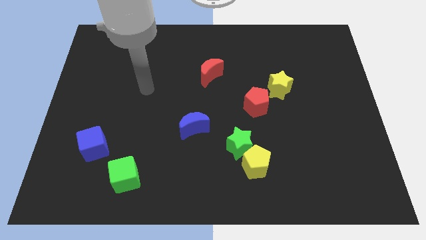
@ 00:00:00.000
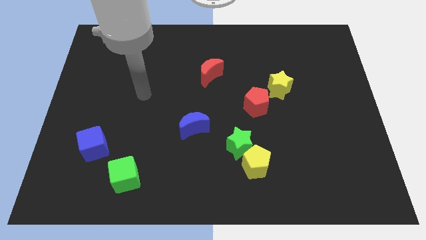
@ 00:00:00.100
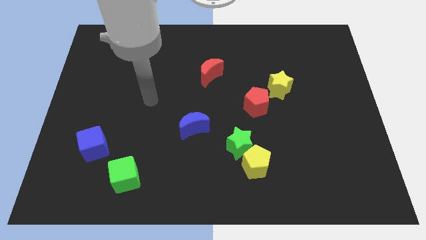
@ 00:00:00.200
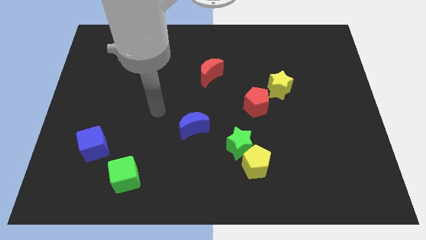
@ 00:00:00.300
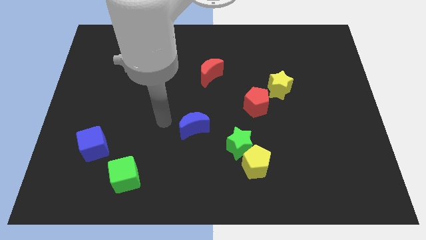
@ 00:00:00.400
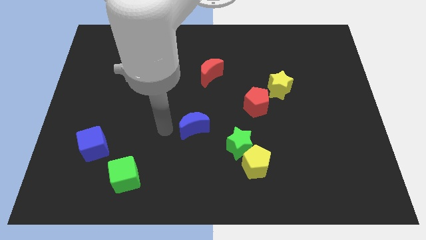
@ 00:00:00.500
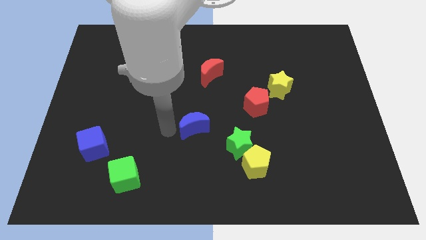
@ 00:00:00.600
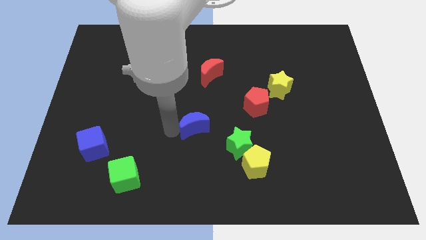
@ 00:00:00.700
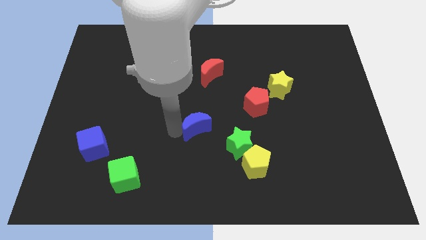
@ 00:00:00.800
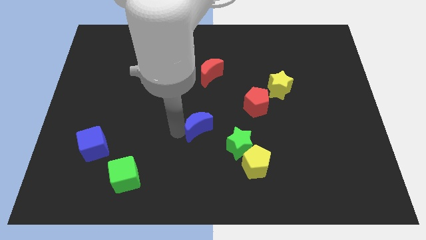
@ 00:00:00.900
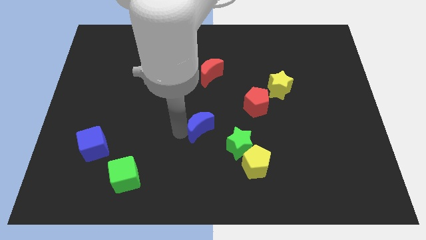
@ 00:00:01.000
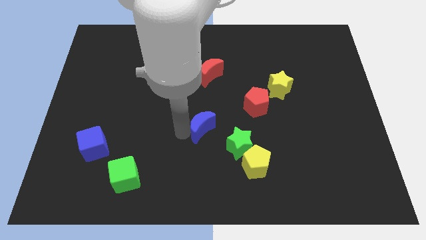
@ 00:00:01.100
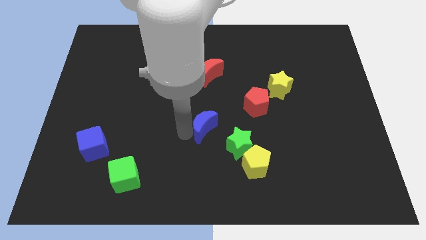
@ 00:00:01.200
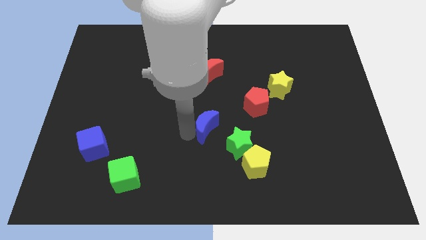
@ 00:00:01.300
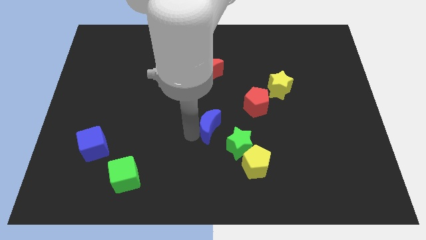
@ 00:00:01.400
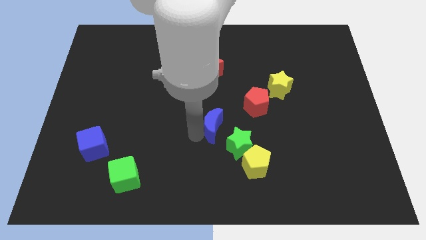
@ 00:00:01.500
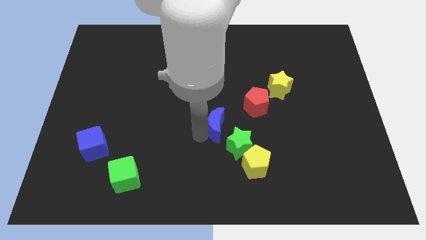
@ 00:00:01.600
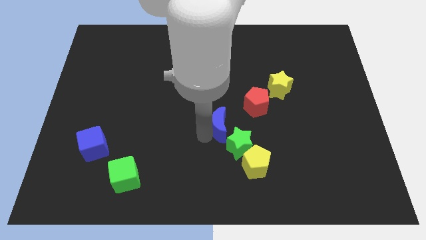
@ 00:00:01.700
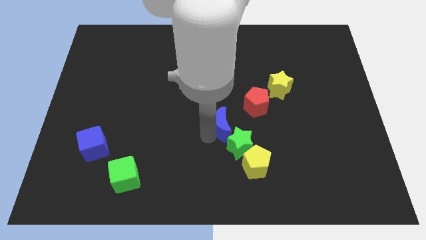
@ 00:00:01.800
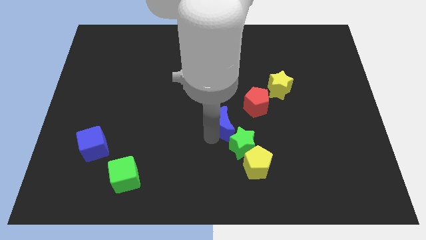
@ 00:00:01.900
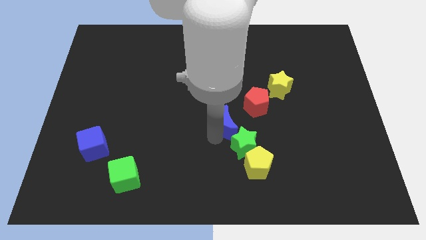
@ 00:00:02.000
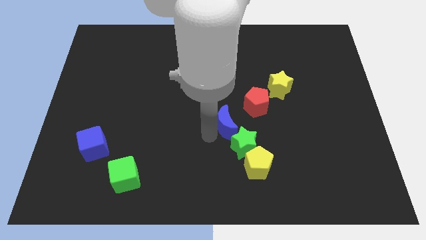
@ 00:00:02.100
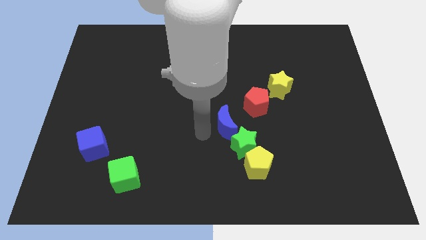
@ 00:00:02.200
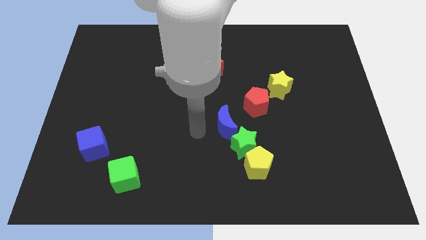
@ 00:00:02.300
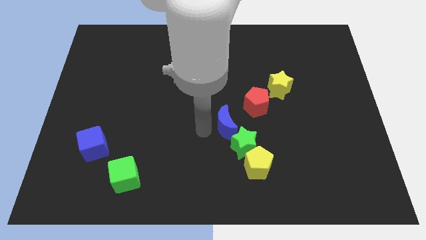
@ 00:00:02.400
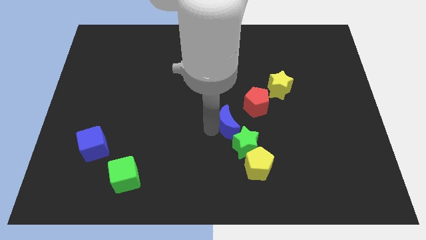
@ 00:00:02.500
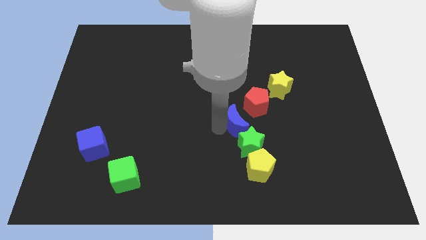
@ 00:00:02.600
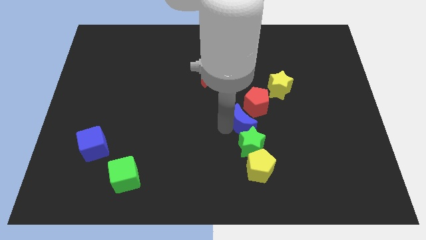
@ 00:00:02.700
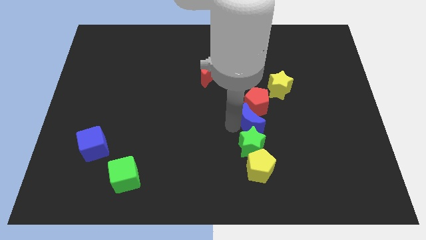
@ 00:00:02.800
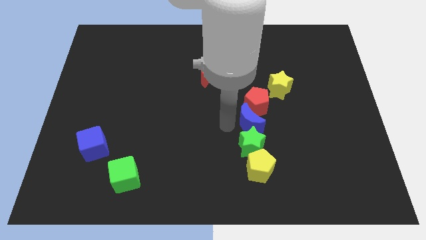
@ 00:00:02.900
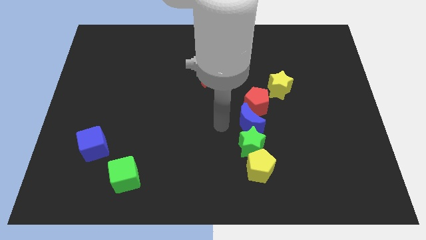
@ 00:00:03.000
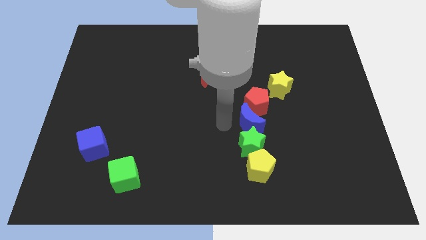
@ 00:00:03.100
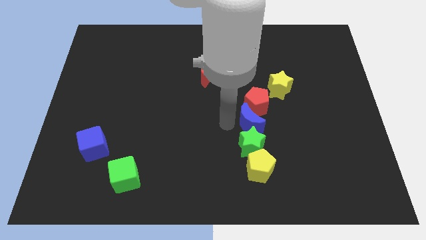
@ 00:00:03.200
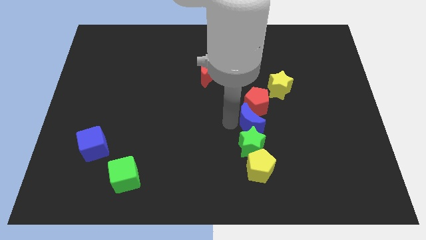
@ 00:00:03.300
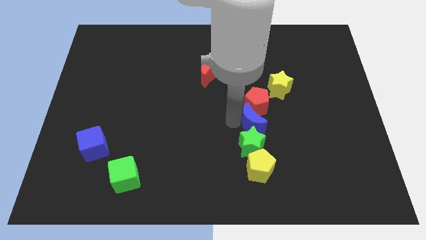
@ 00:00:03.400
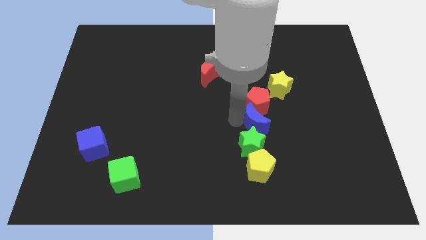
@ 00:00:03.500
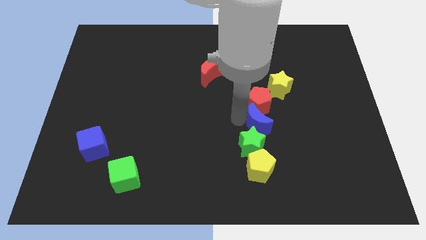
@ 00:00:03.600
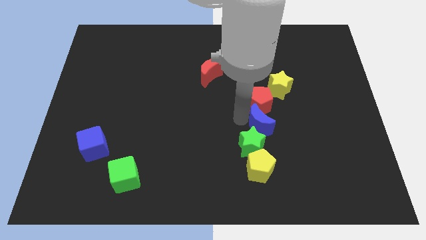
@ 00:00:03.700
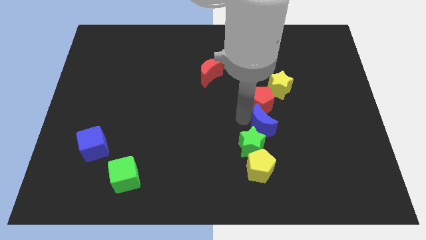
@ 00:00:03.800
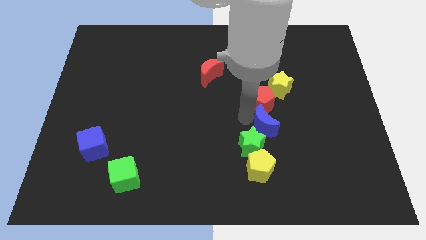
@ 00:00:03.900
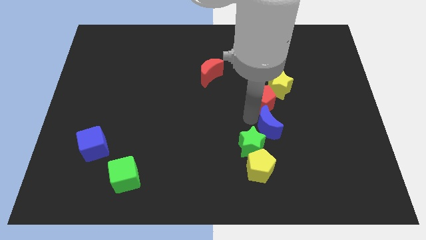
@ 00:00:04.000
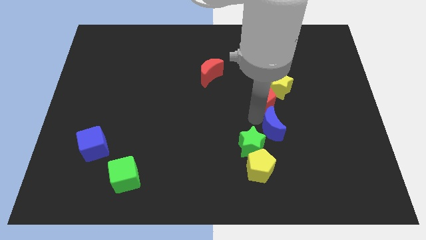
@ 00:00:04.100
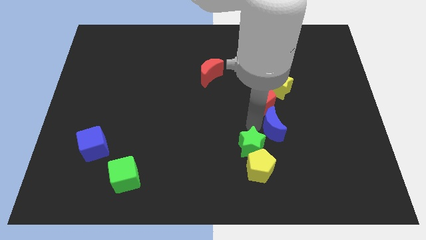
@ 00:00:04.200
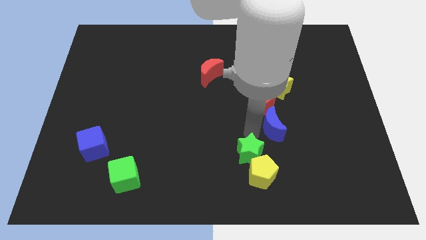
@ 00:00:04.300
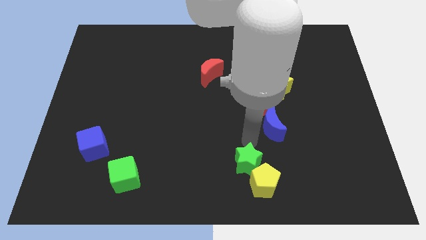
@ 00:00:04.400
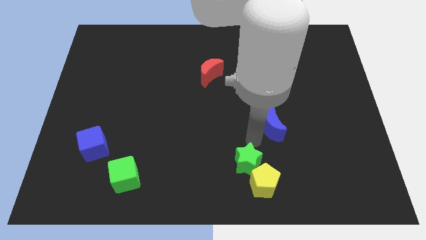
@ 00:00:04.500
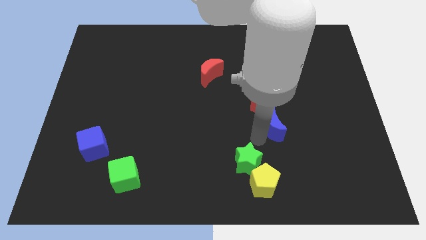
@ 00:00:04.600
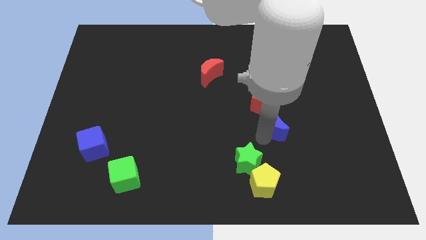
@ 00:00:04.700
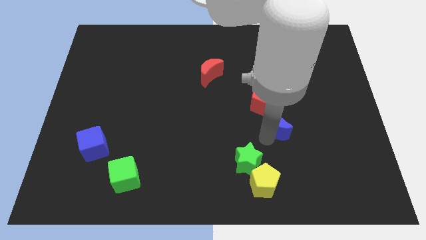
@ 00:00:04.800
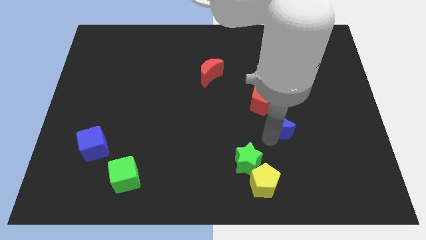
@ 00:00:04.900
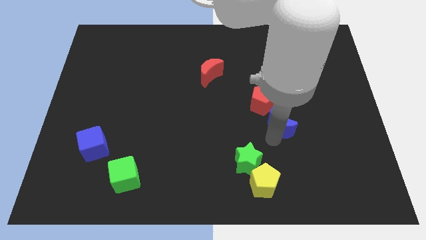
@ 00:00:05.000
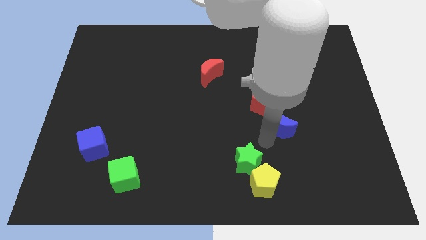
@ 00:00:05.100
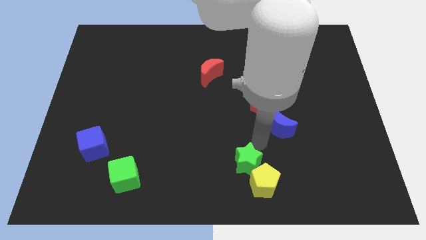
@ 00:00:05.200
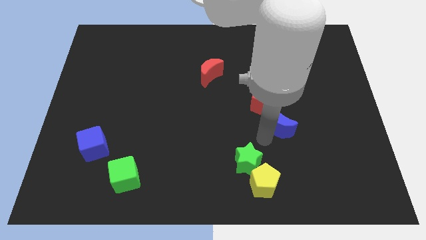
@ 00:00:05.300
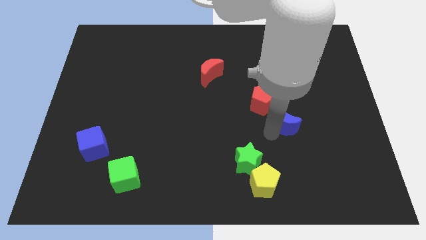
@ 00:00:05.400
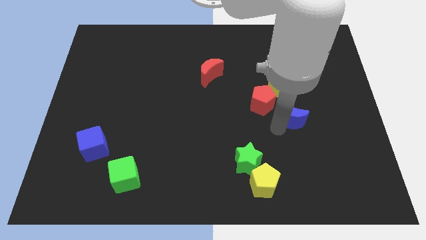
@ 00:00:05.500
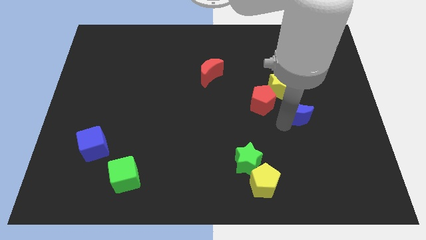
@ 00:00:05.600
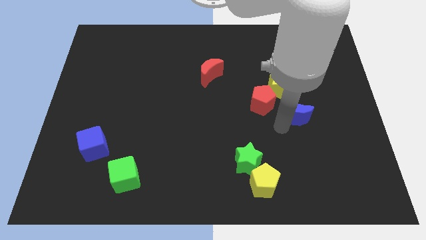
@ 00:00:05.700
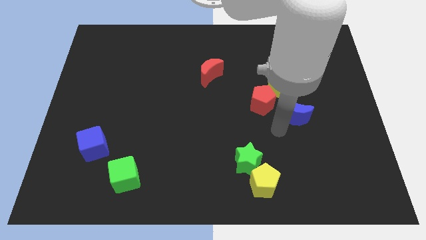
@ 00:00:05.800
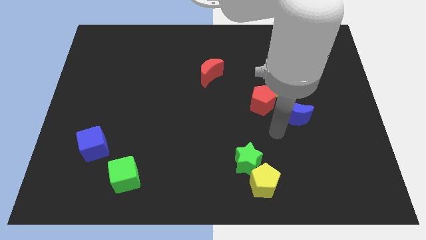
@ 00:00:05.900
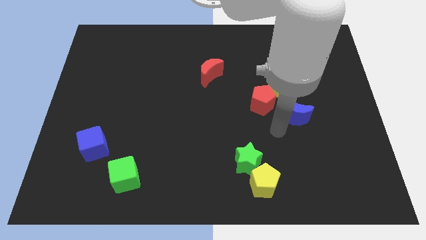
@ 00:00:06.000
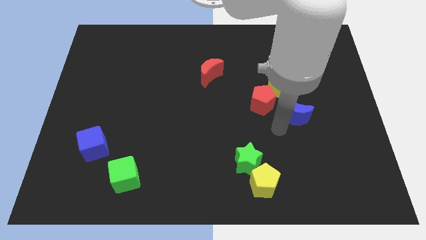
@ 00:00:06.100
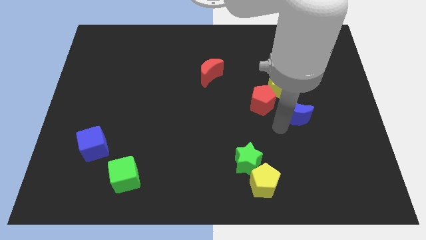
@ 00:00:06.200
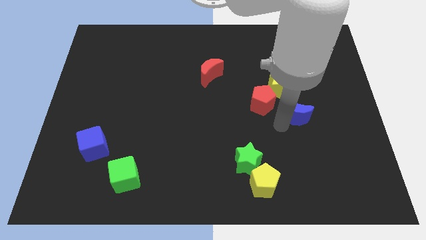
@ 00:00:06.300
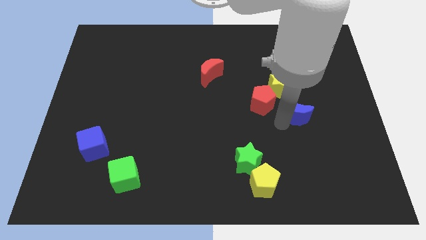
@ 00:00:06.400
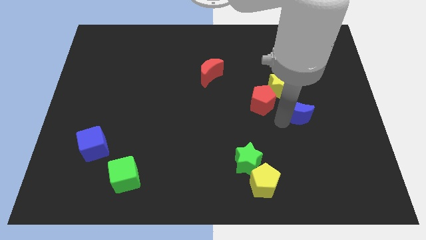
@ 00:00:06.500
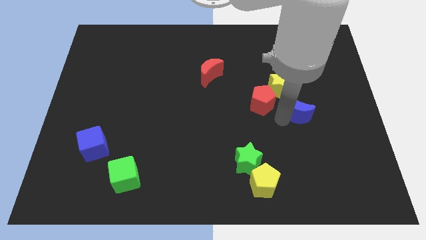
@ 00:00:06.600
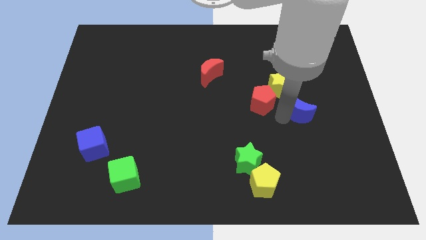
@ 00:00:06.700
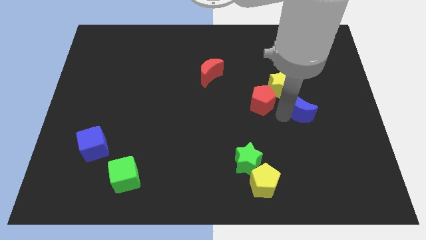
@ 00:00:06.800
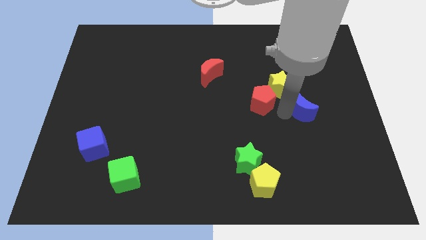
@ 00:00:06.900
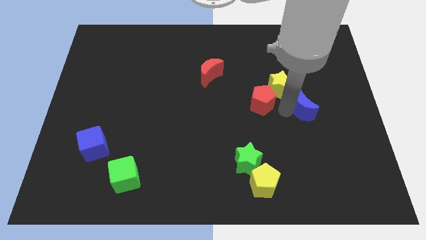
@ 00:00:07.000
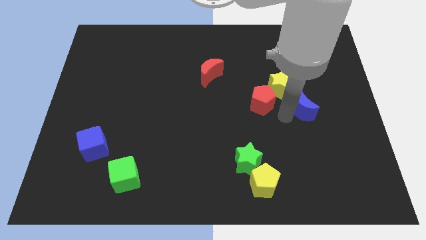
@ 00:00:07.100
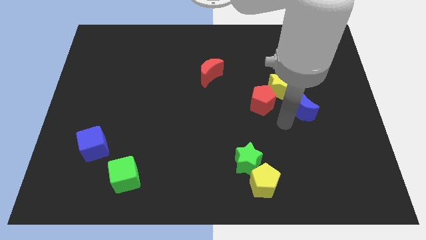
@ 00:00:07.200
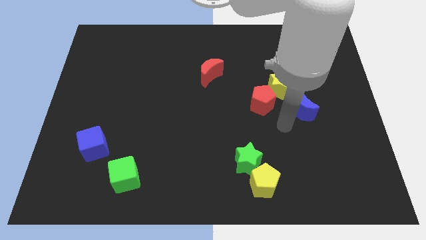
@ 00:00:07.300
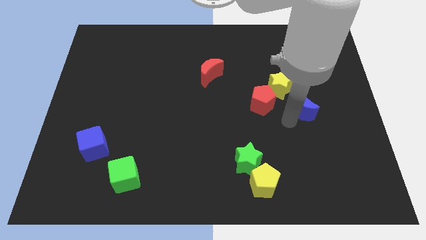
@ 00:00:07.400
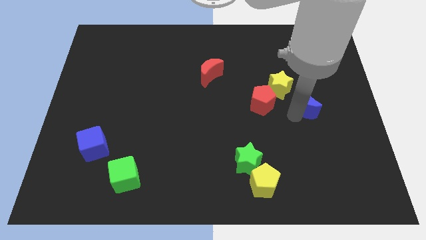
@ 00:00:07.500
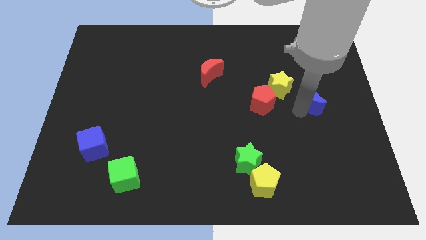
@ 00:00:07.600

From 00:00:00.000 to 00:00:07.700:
move the blue moon right of the yellow star
